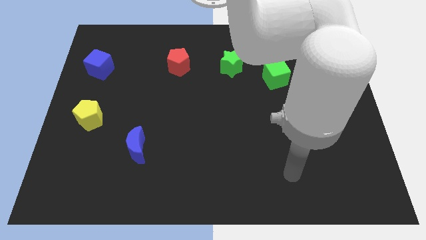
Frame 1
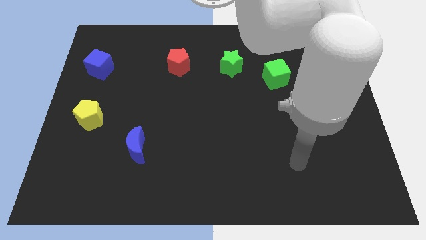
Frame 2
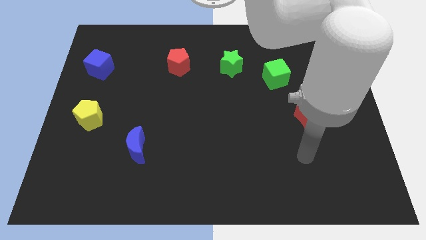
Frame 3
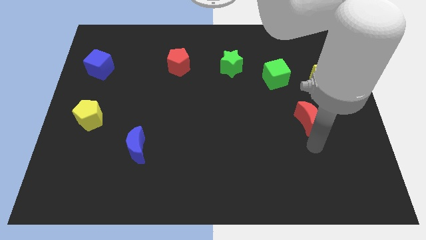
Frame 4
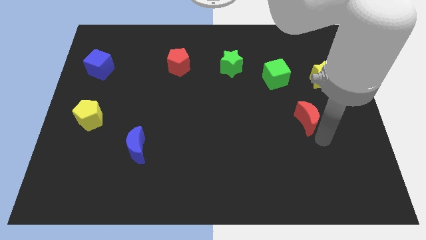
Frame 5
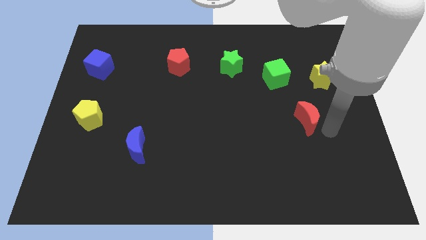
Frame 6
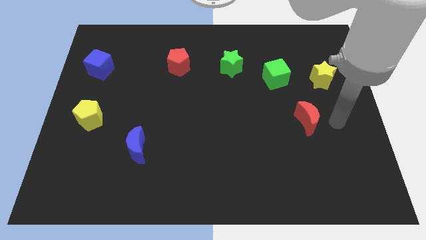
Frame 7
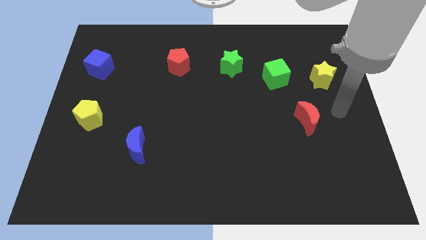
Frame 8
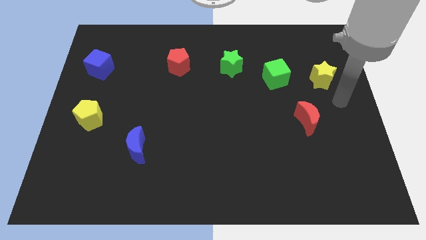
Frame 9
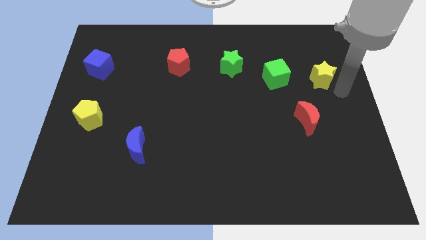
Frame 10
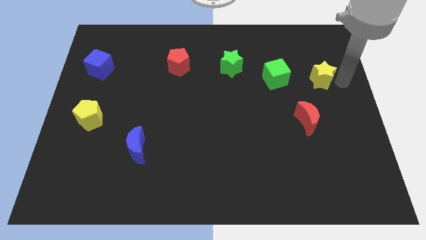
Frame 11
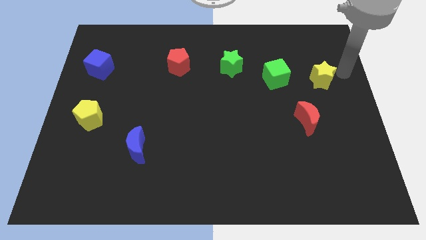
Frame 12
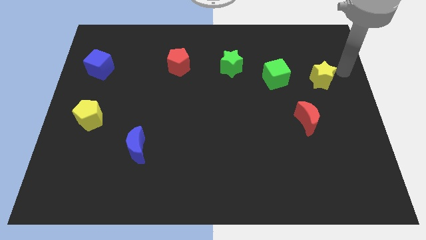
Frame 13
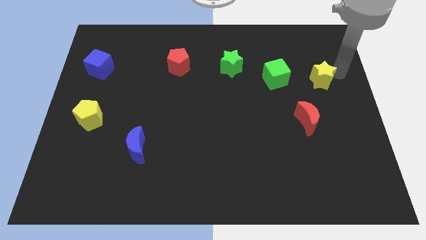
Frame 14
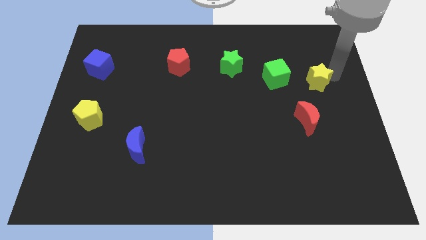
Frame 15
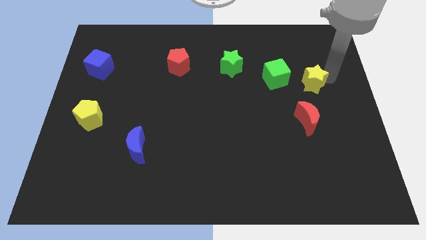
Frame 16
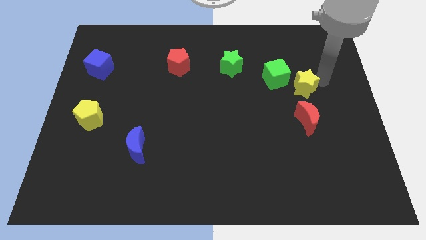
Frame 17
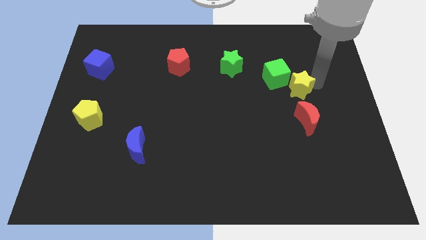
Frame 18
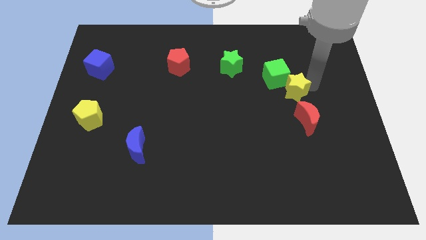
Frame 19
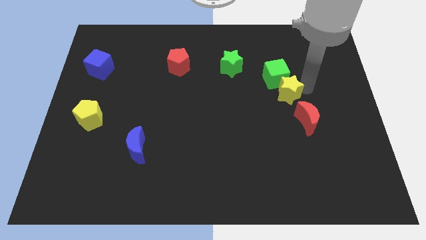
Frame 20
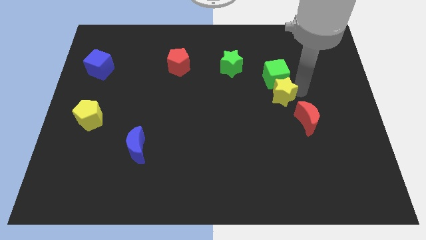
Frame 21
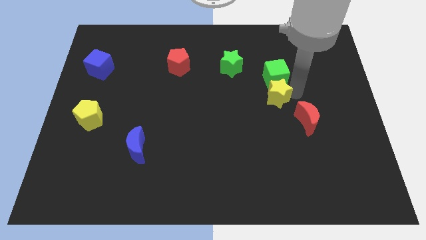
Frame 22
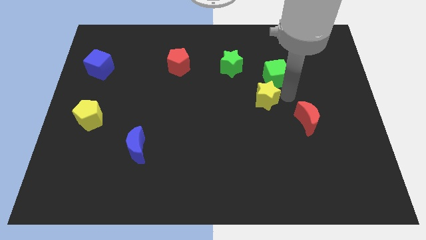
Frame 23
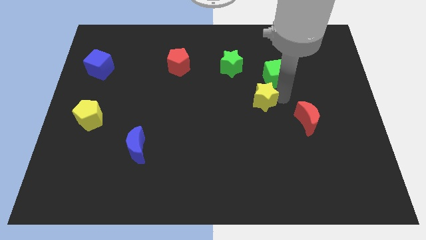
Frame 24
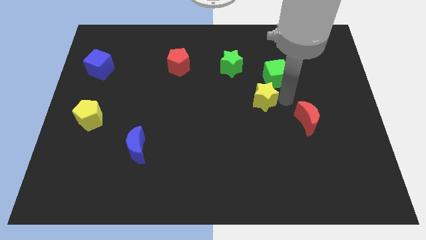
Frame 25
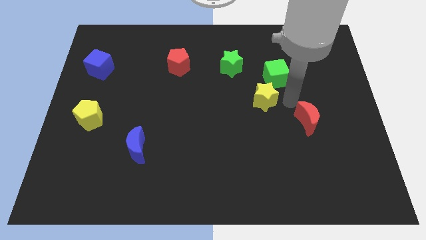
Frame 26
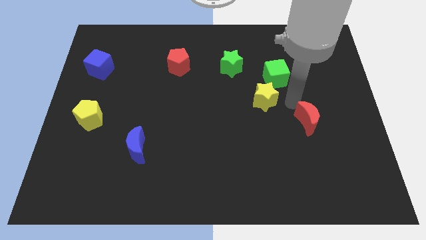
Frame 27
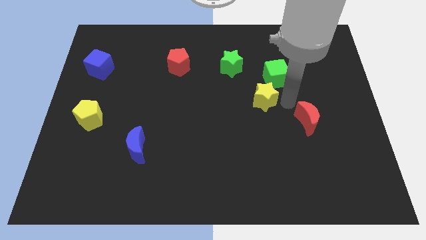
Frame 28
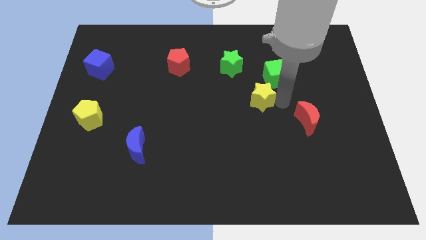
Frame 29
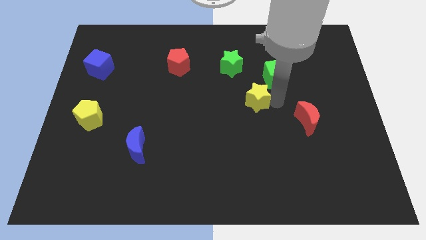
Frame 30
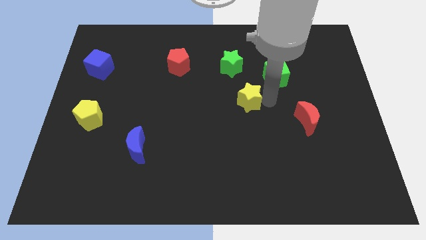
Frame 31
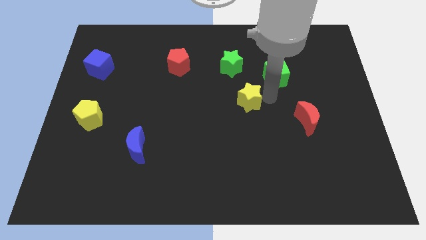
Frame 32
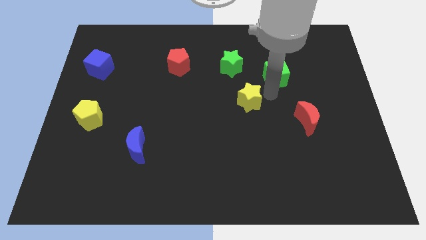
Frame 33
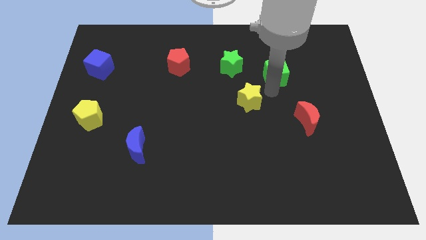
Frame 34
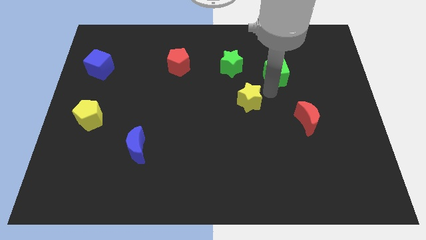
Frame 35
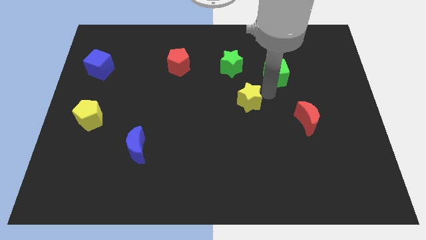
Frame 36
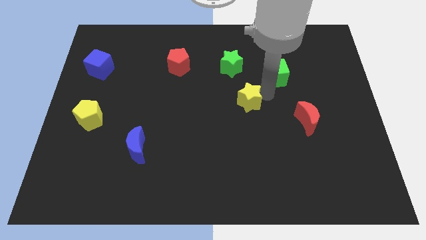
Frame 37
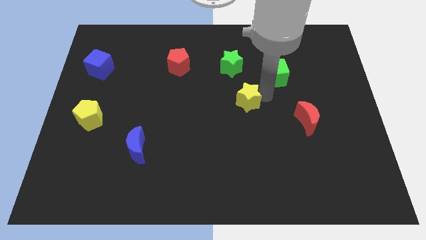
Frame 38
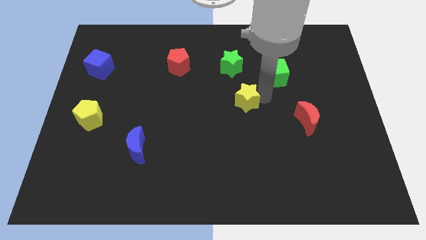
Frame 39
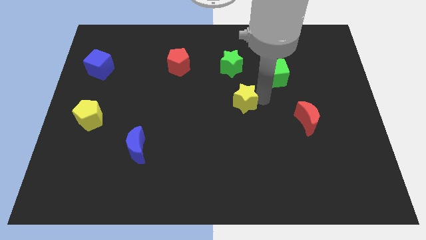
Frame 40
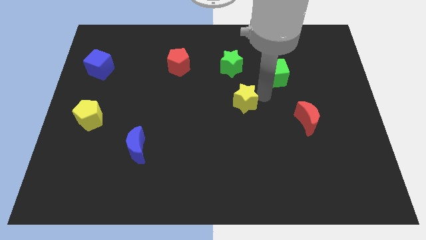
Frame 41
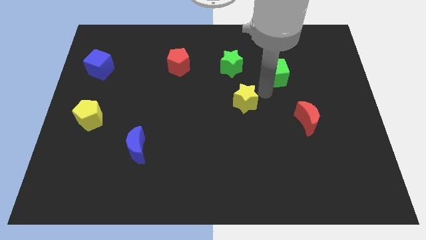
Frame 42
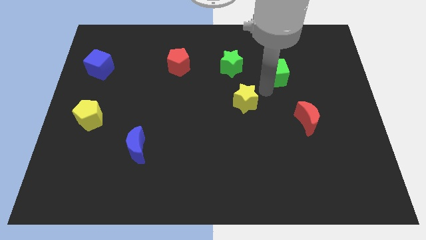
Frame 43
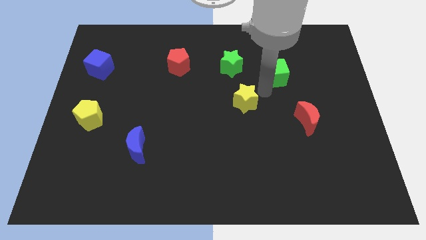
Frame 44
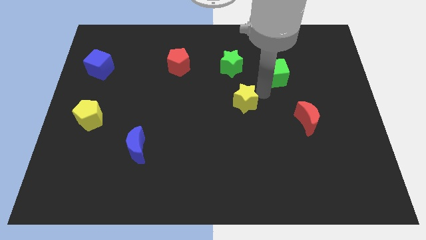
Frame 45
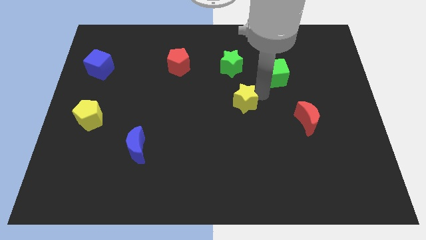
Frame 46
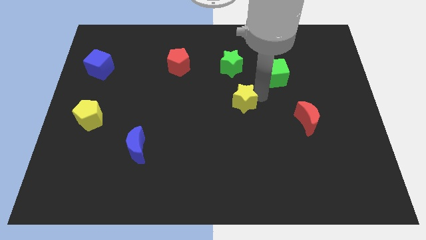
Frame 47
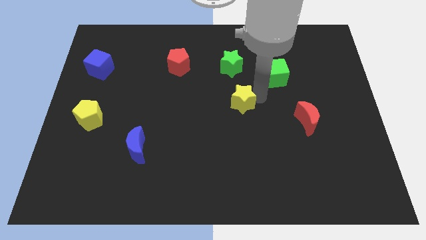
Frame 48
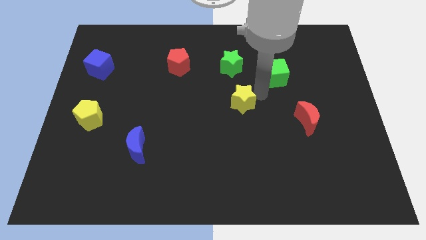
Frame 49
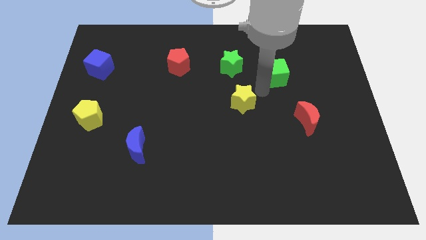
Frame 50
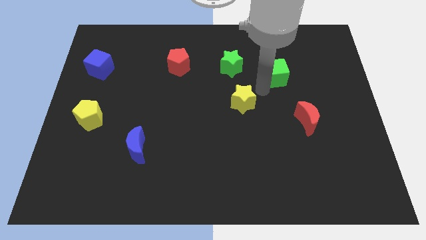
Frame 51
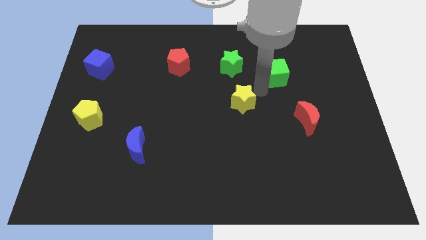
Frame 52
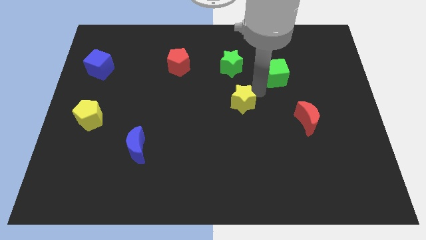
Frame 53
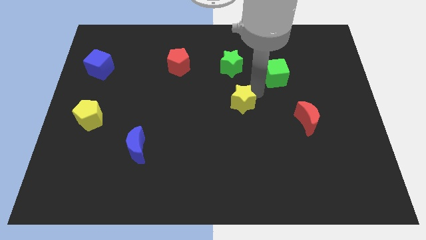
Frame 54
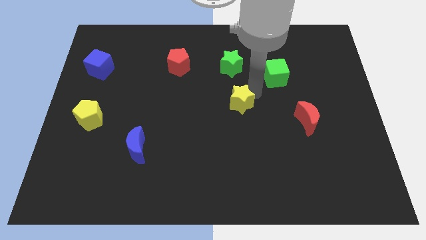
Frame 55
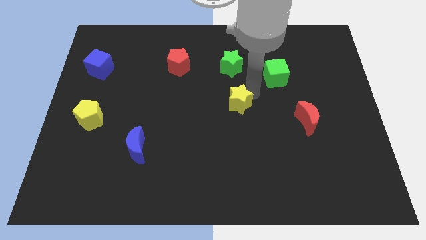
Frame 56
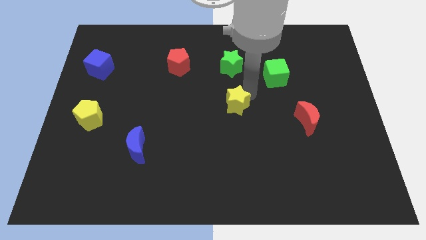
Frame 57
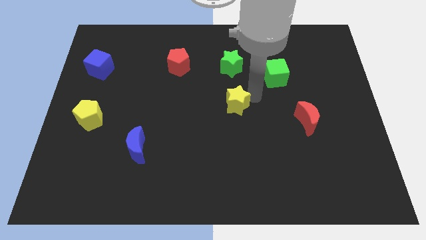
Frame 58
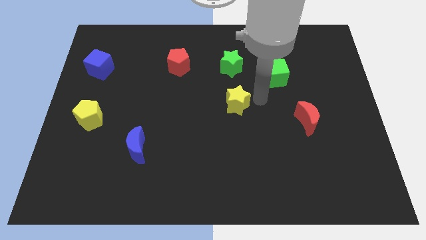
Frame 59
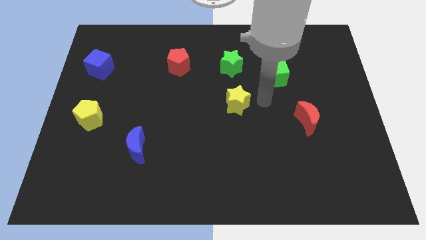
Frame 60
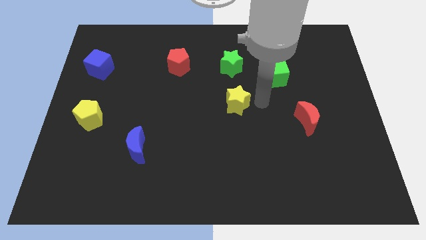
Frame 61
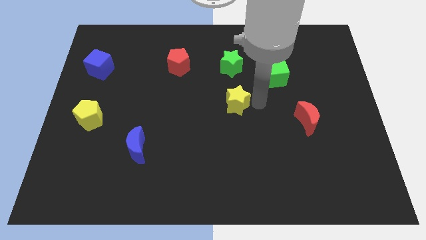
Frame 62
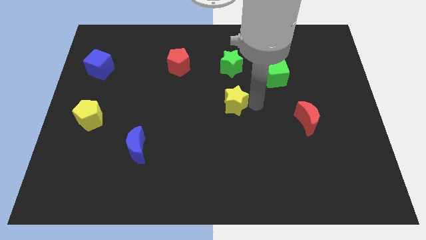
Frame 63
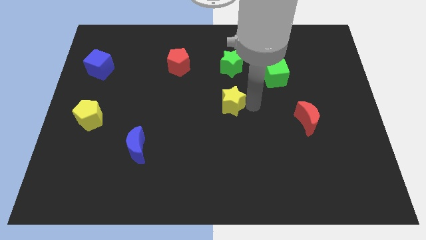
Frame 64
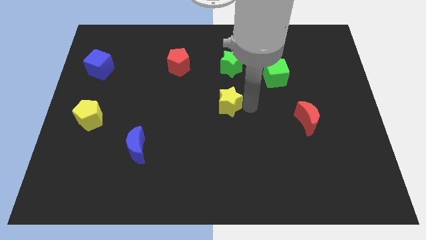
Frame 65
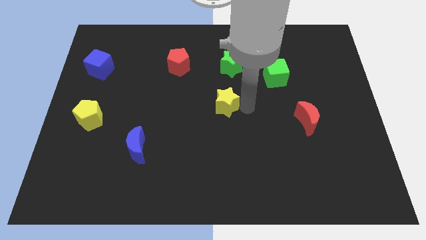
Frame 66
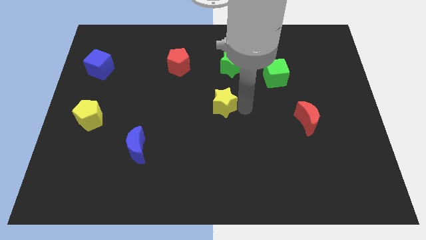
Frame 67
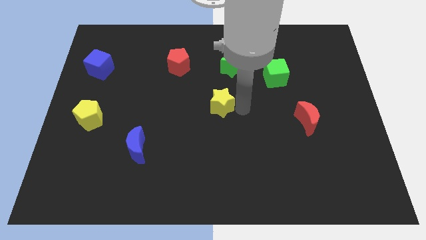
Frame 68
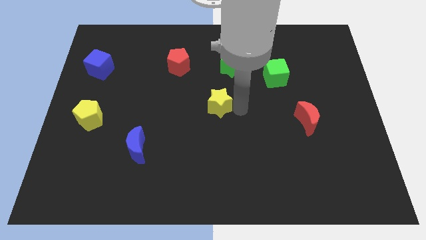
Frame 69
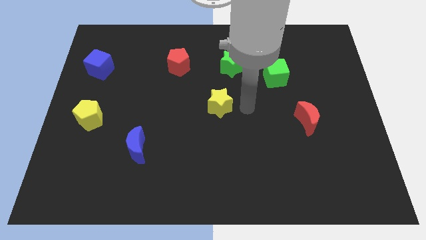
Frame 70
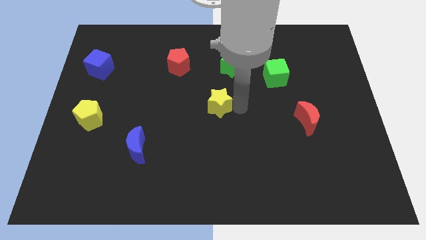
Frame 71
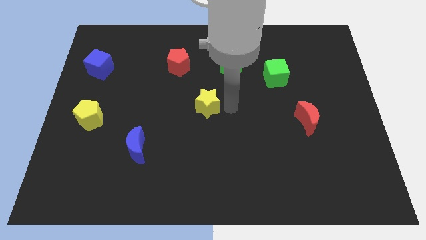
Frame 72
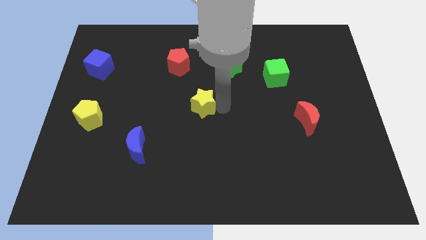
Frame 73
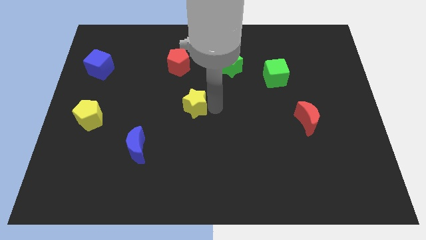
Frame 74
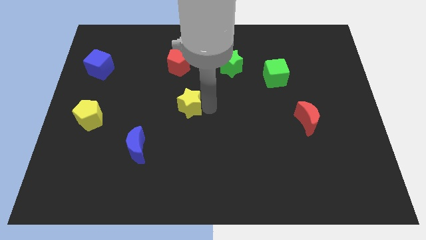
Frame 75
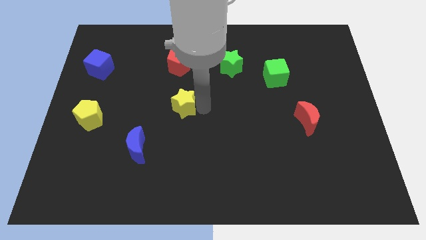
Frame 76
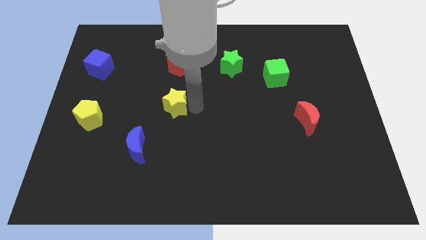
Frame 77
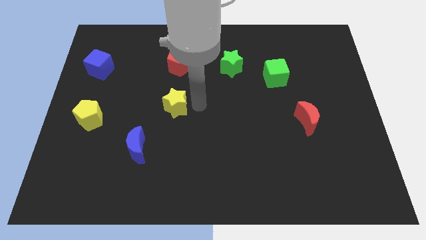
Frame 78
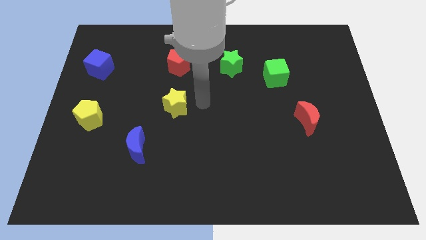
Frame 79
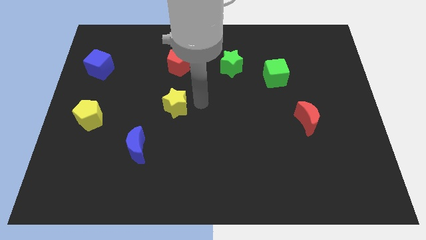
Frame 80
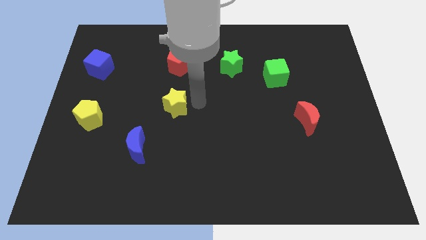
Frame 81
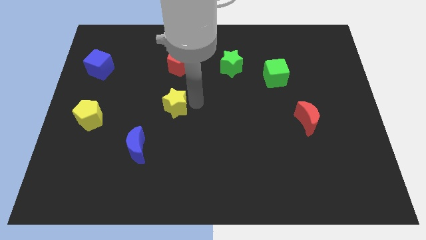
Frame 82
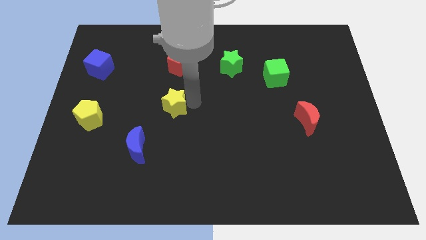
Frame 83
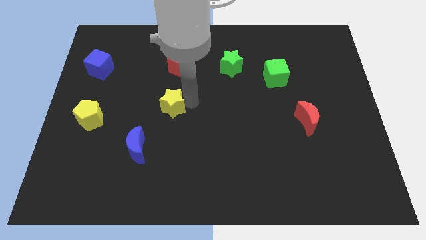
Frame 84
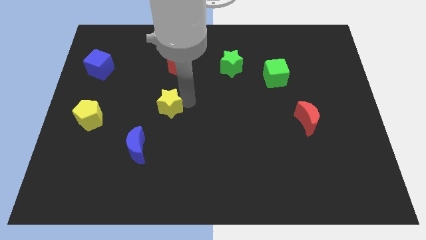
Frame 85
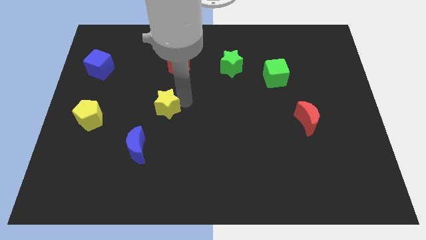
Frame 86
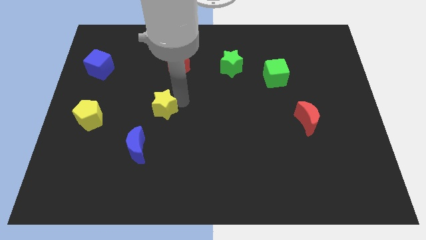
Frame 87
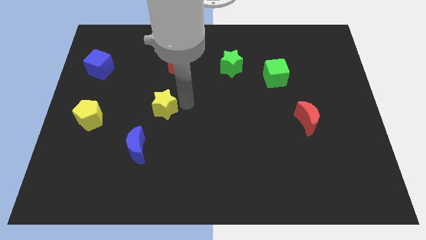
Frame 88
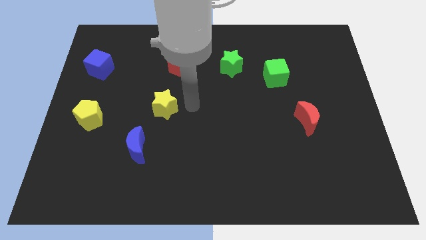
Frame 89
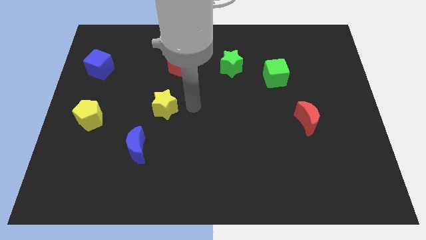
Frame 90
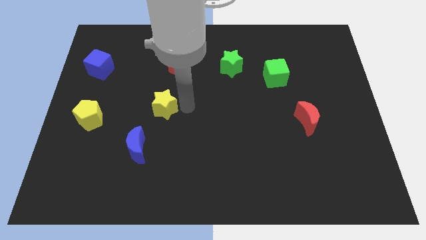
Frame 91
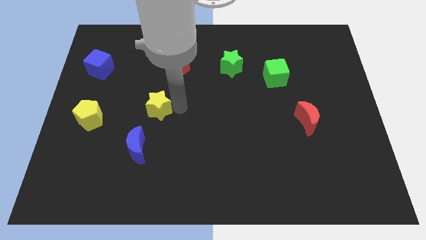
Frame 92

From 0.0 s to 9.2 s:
put the yellow star above the blue moon
